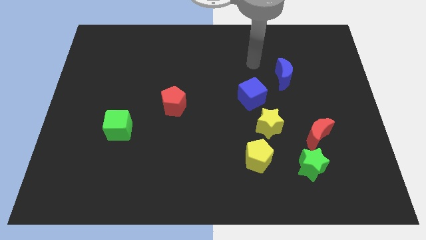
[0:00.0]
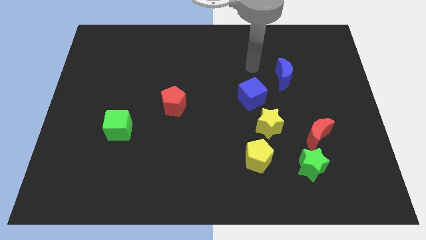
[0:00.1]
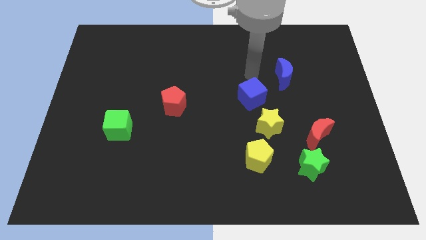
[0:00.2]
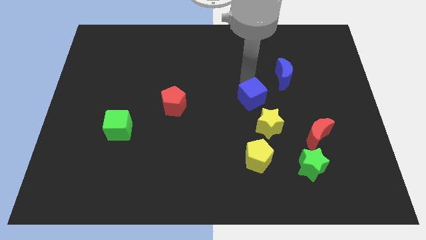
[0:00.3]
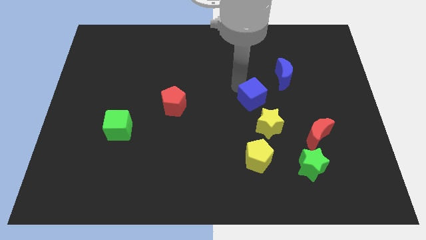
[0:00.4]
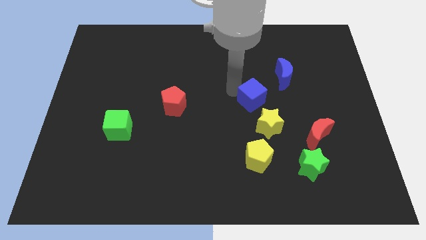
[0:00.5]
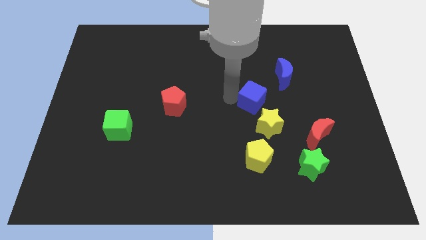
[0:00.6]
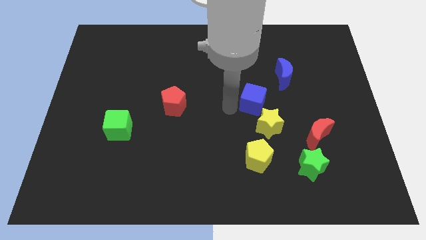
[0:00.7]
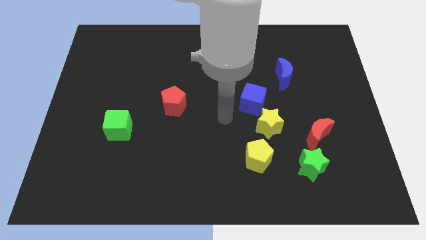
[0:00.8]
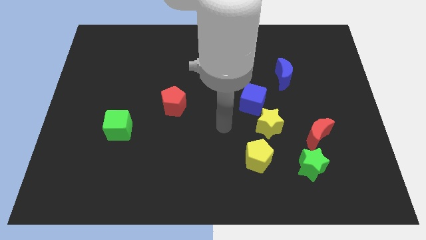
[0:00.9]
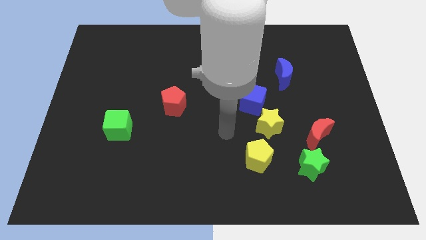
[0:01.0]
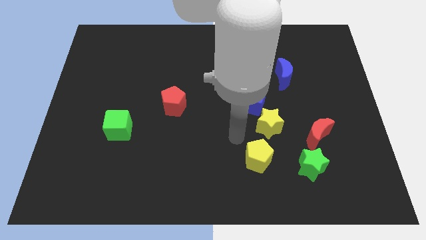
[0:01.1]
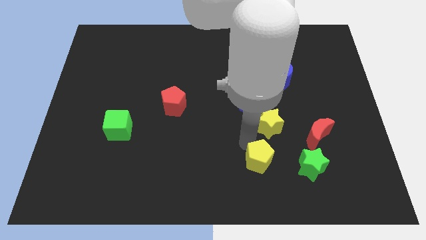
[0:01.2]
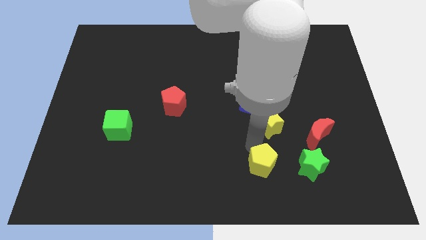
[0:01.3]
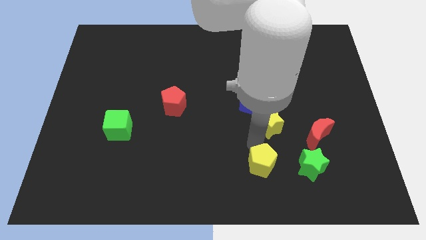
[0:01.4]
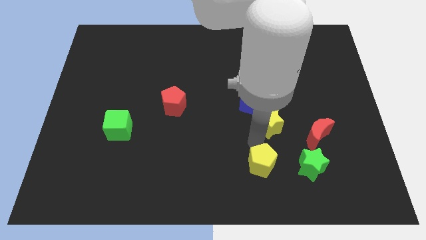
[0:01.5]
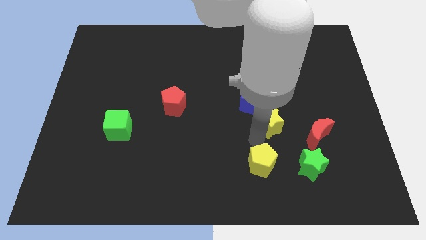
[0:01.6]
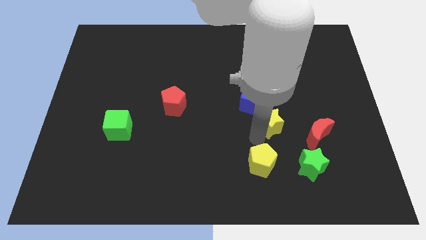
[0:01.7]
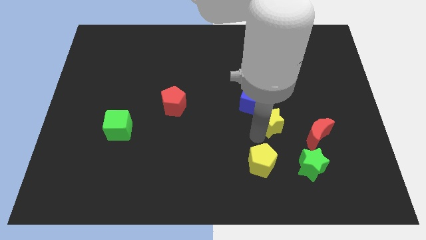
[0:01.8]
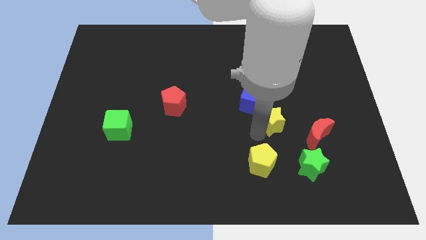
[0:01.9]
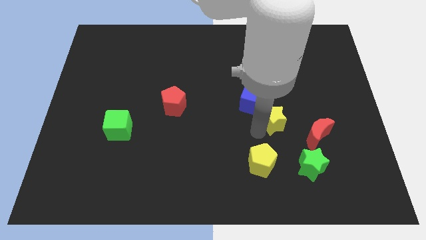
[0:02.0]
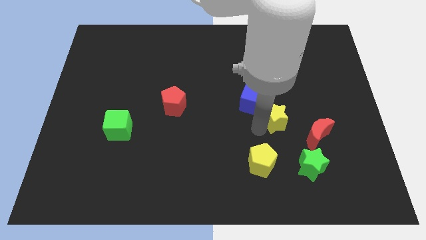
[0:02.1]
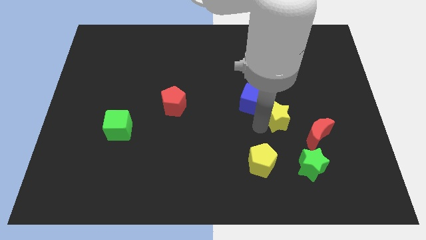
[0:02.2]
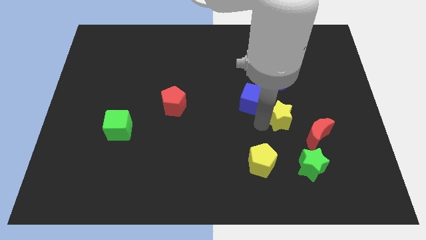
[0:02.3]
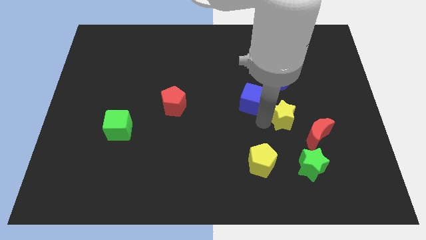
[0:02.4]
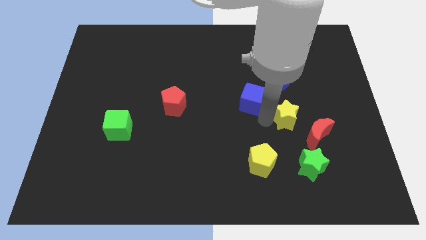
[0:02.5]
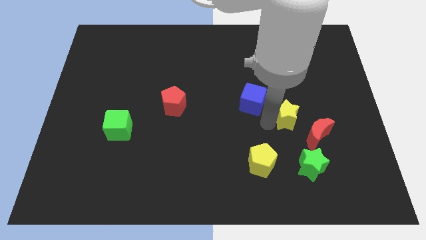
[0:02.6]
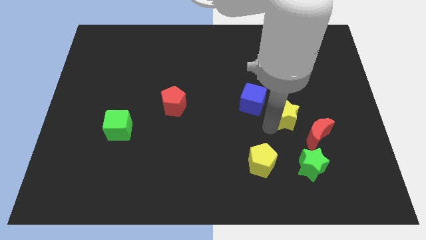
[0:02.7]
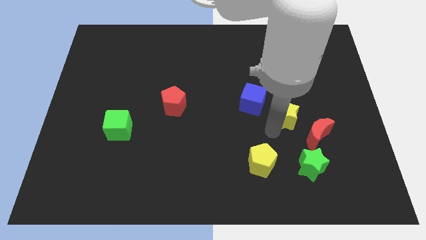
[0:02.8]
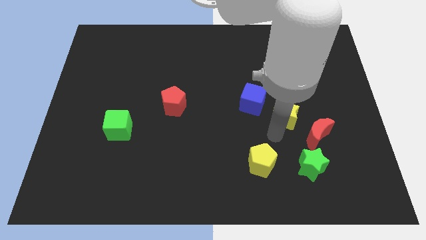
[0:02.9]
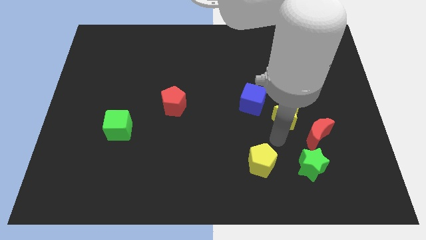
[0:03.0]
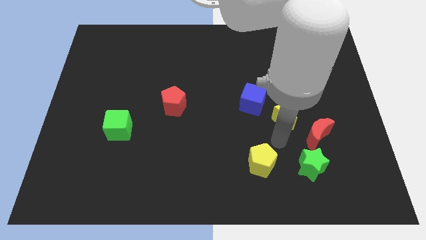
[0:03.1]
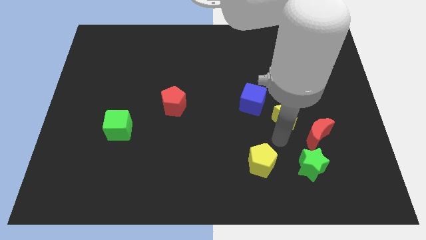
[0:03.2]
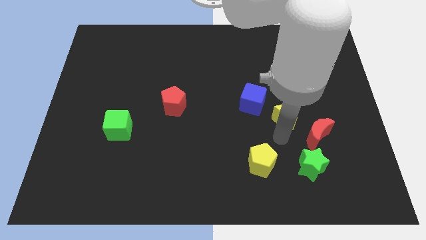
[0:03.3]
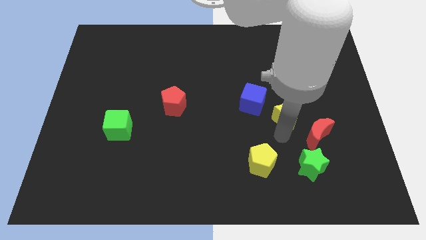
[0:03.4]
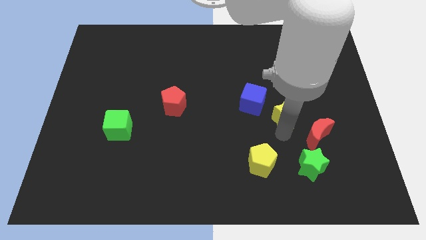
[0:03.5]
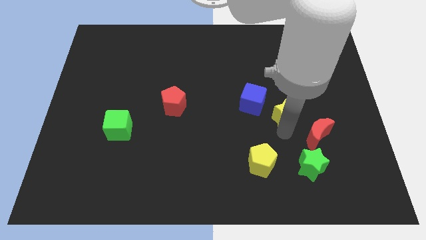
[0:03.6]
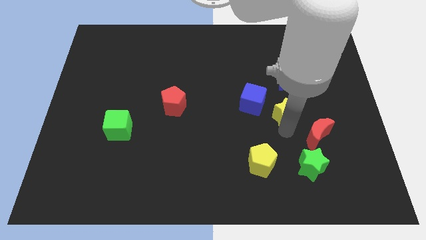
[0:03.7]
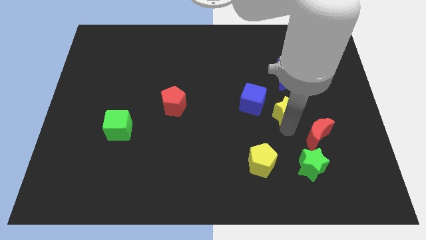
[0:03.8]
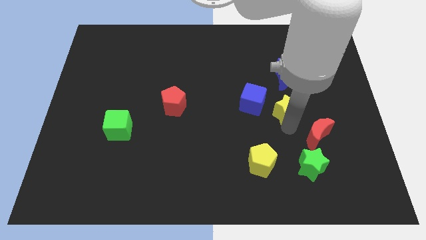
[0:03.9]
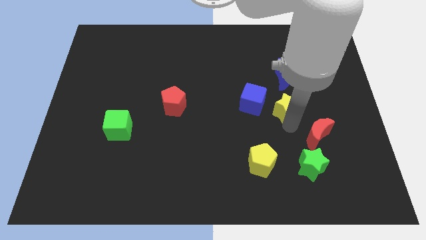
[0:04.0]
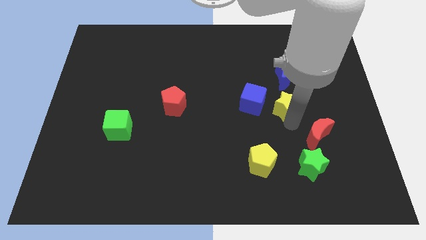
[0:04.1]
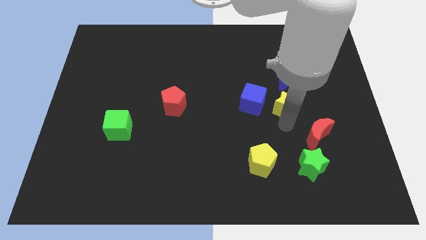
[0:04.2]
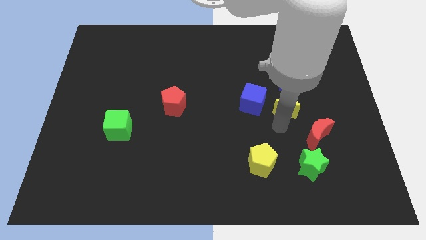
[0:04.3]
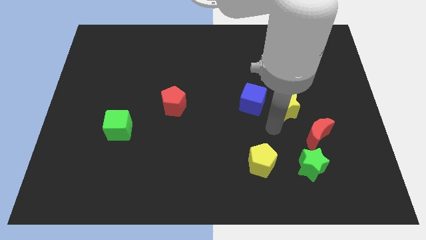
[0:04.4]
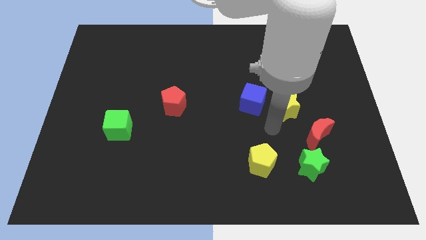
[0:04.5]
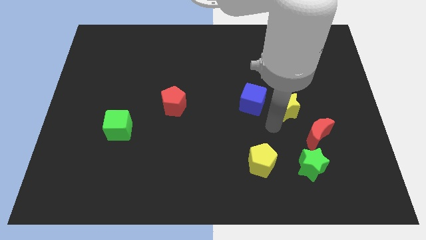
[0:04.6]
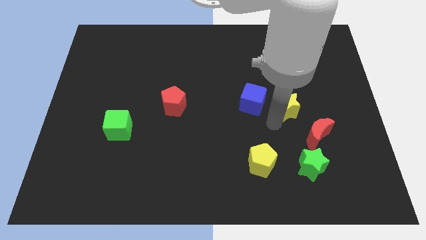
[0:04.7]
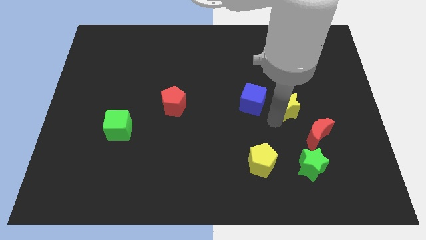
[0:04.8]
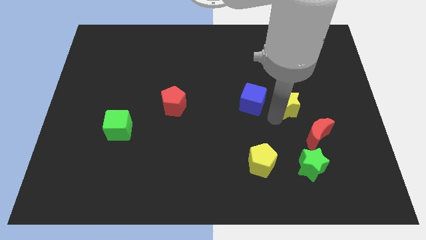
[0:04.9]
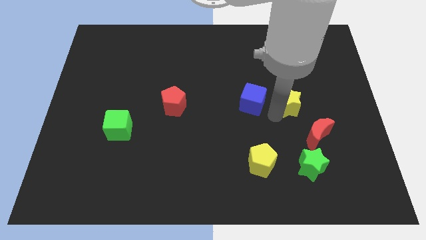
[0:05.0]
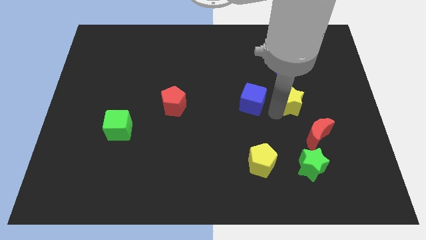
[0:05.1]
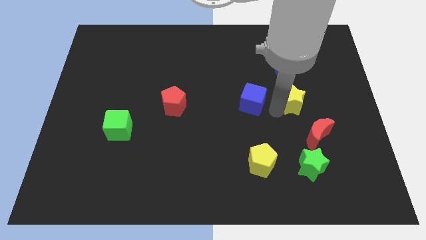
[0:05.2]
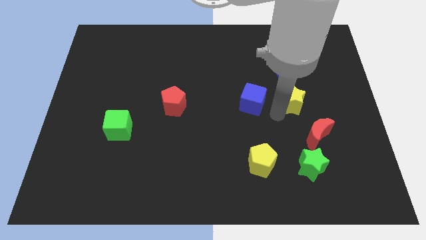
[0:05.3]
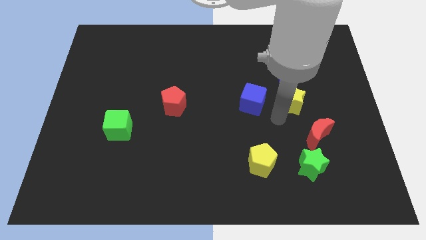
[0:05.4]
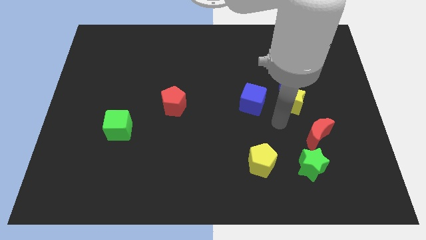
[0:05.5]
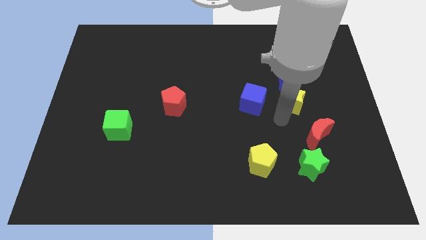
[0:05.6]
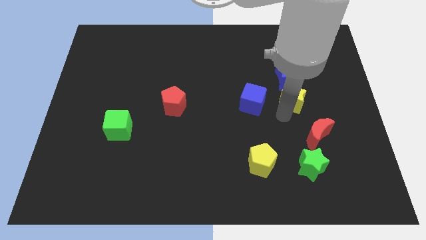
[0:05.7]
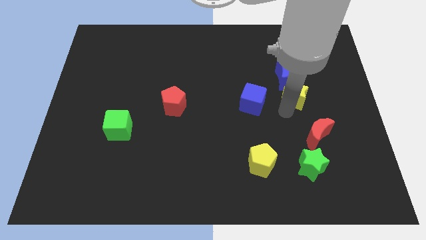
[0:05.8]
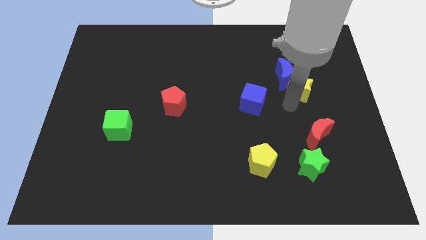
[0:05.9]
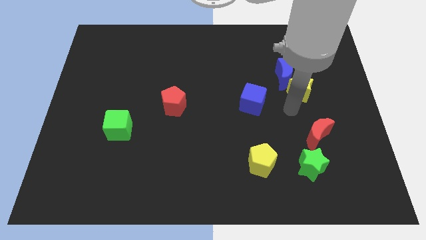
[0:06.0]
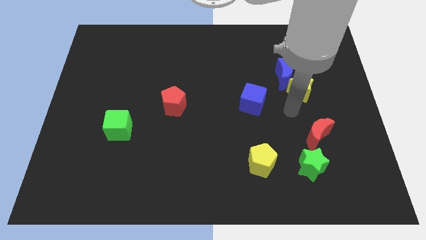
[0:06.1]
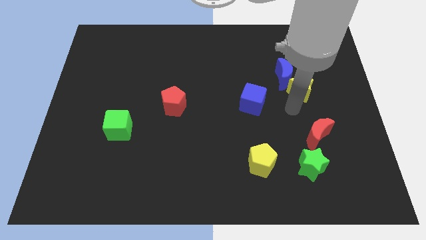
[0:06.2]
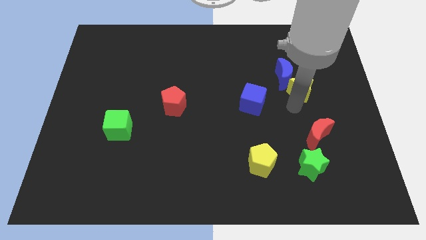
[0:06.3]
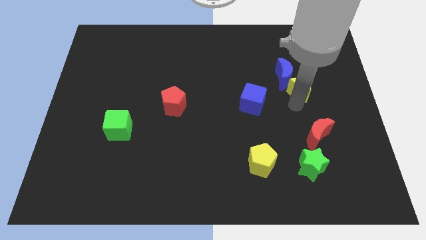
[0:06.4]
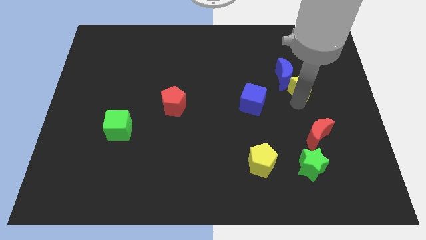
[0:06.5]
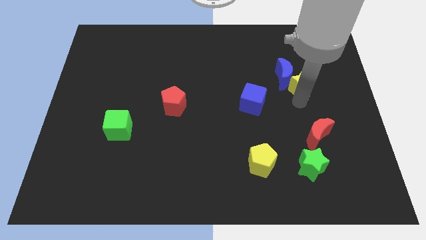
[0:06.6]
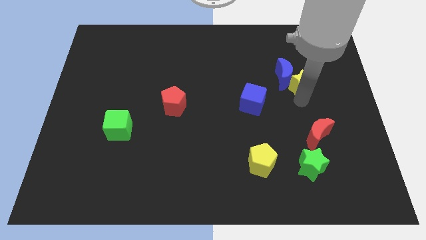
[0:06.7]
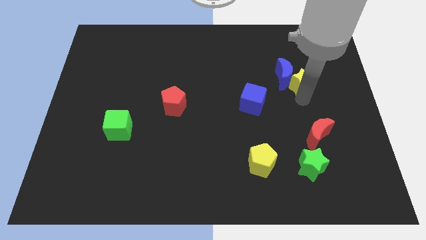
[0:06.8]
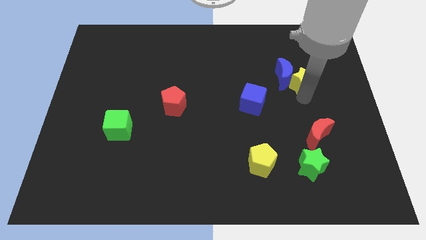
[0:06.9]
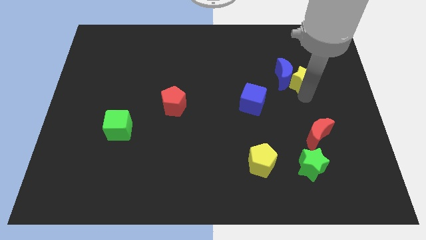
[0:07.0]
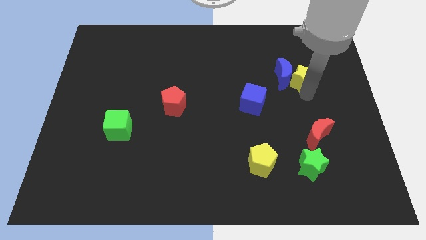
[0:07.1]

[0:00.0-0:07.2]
slide the yellow star to the top right of the blue moon
